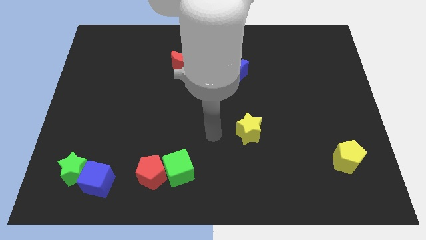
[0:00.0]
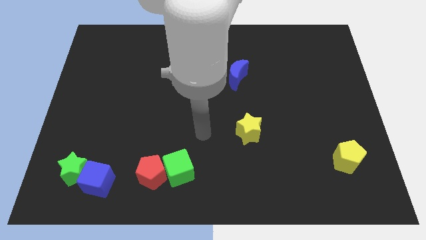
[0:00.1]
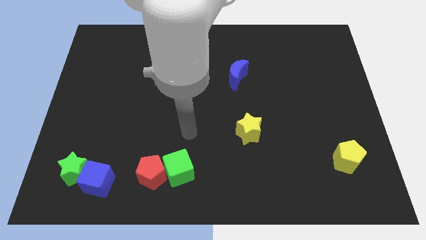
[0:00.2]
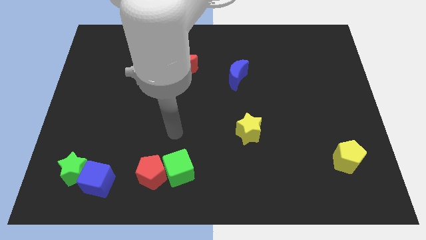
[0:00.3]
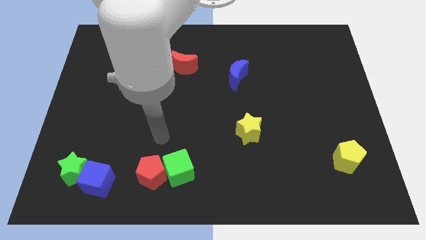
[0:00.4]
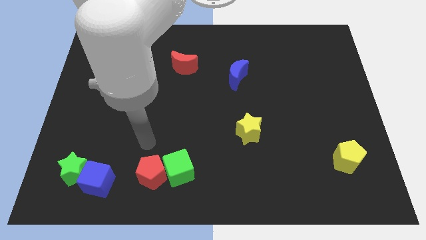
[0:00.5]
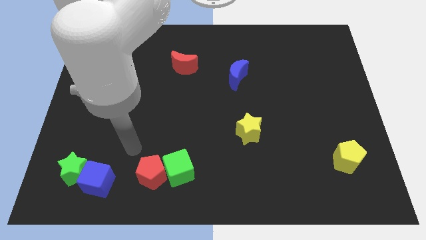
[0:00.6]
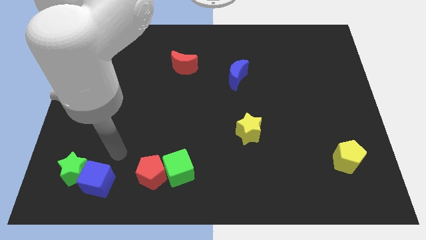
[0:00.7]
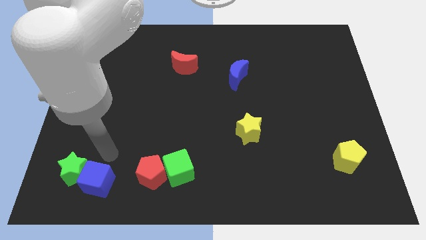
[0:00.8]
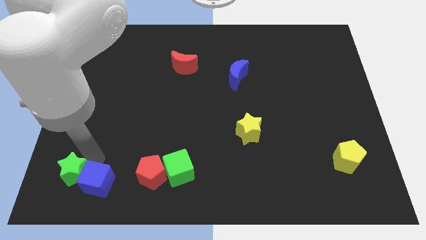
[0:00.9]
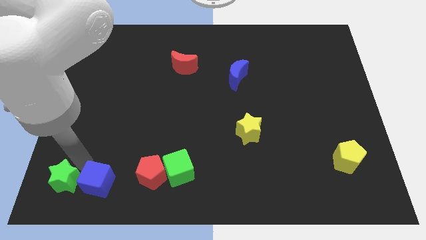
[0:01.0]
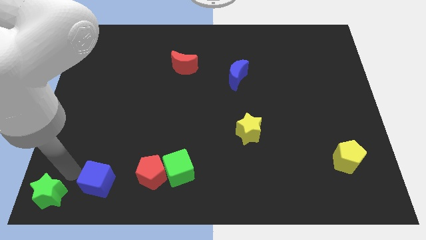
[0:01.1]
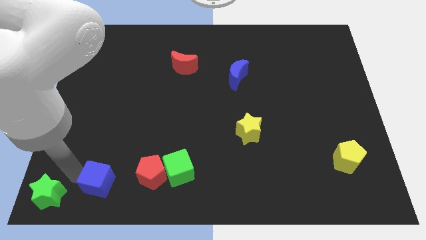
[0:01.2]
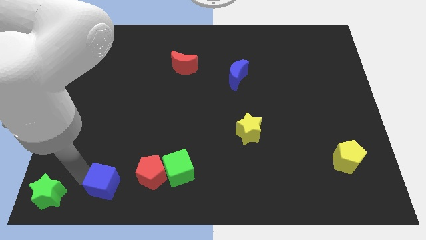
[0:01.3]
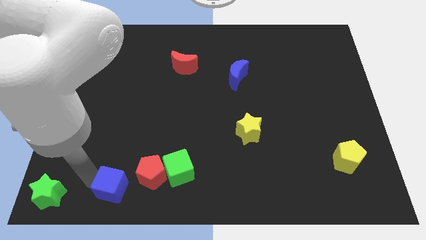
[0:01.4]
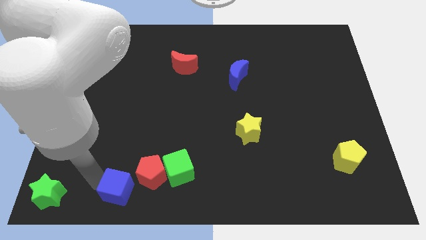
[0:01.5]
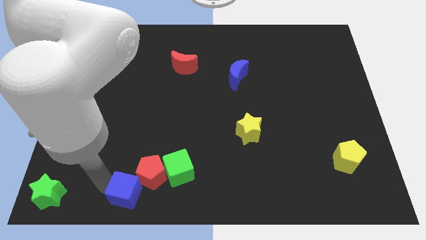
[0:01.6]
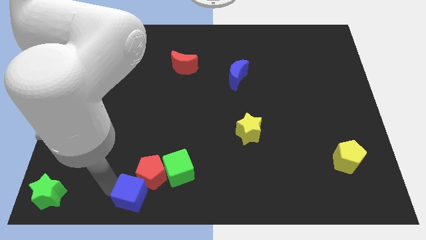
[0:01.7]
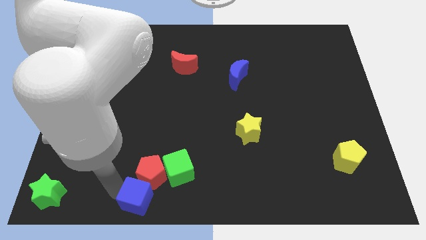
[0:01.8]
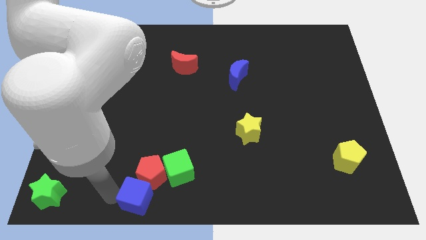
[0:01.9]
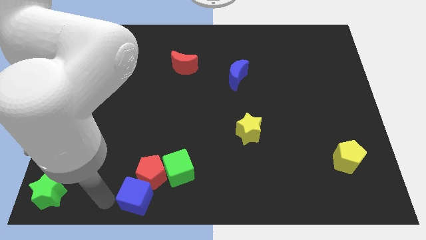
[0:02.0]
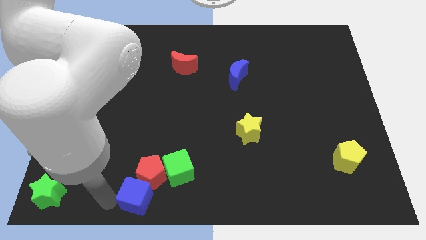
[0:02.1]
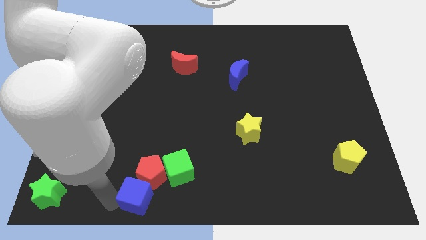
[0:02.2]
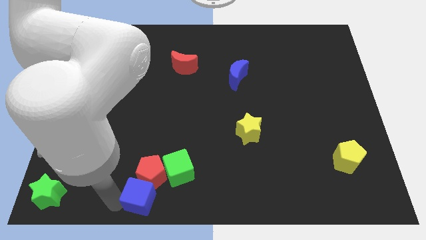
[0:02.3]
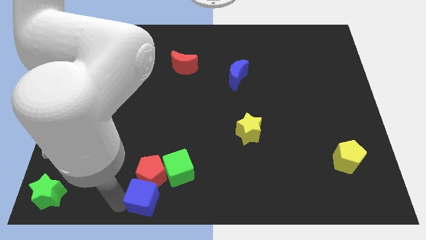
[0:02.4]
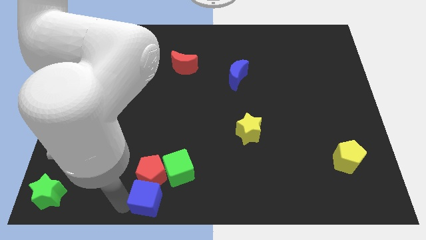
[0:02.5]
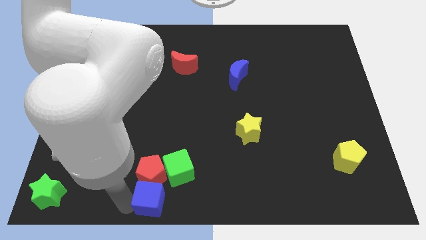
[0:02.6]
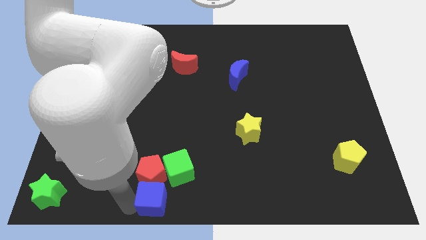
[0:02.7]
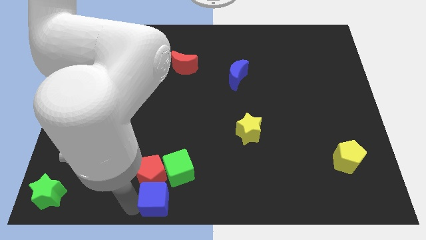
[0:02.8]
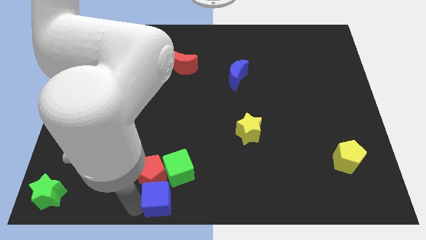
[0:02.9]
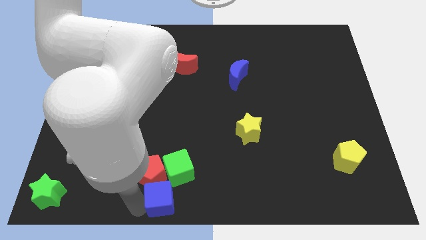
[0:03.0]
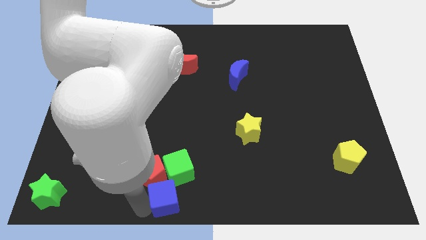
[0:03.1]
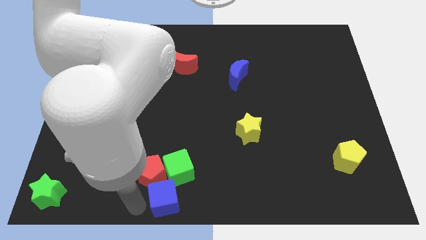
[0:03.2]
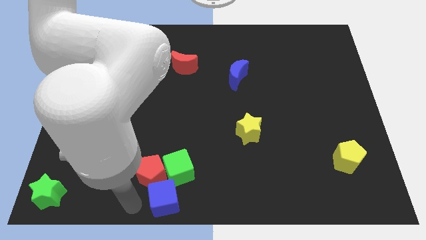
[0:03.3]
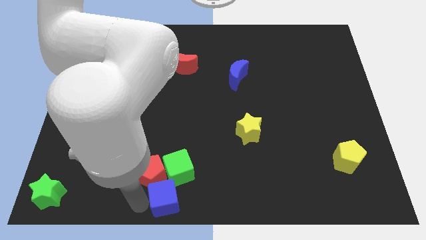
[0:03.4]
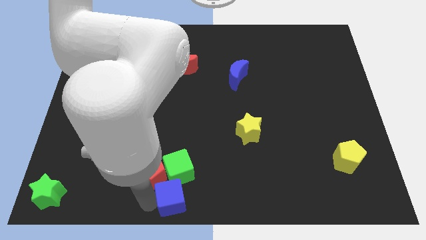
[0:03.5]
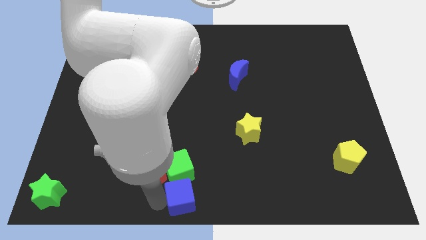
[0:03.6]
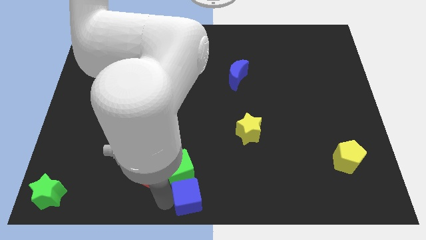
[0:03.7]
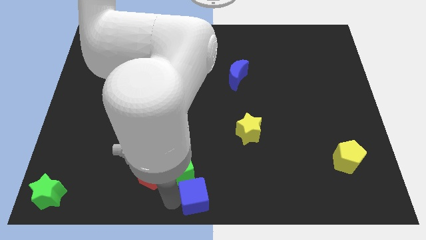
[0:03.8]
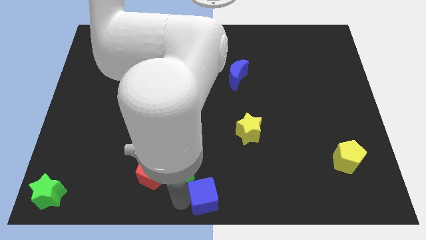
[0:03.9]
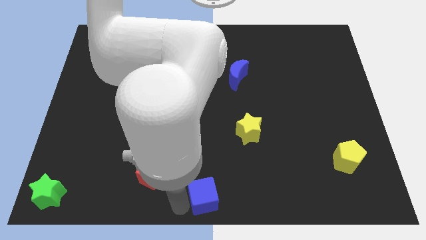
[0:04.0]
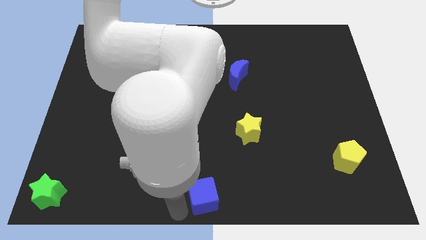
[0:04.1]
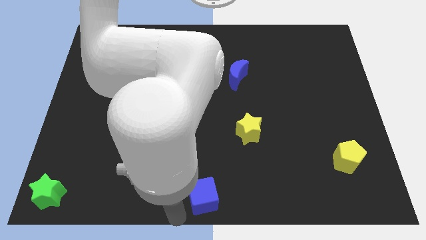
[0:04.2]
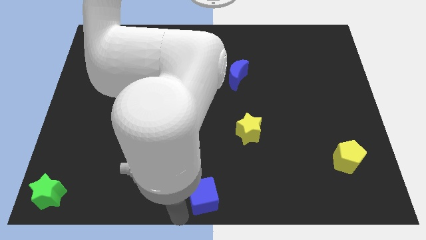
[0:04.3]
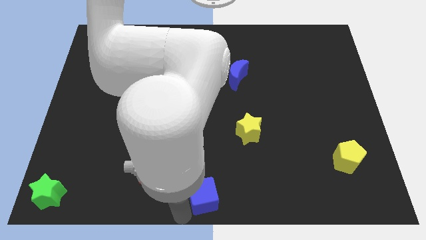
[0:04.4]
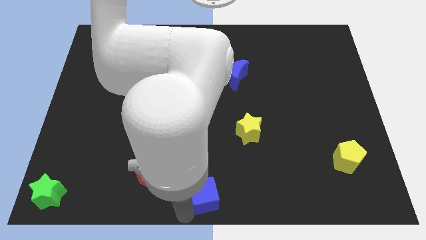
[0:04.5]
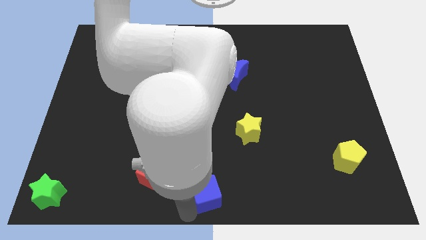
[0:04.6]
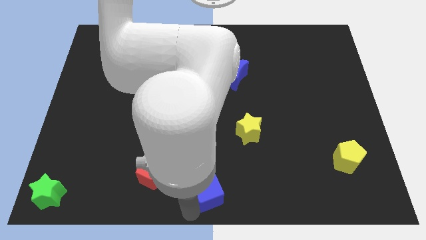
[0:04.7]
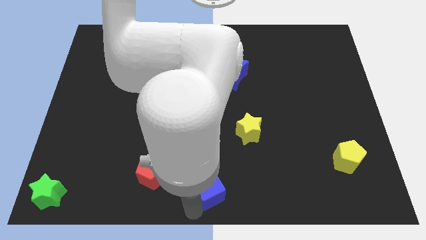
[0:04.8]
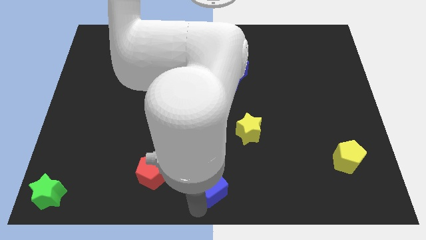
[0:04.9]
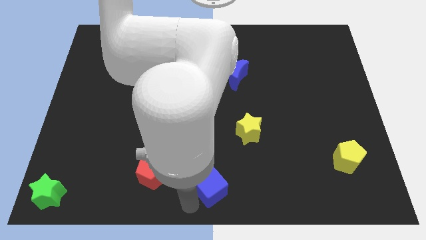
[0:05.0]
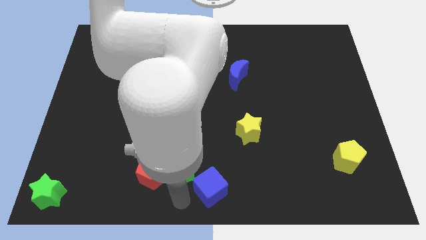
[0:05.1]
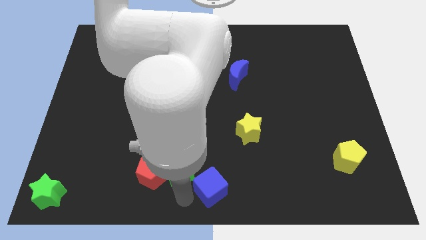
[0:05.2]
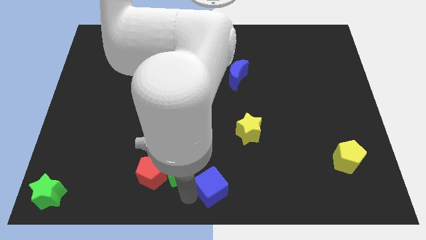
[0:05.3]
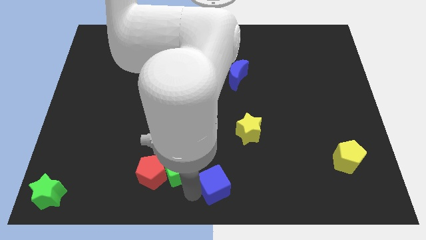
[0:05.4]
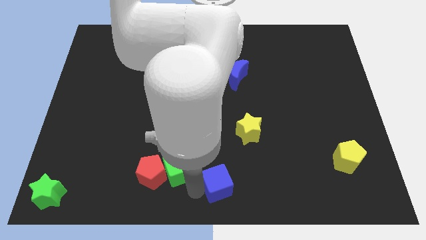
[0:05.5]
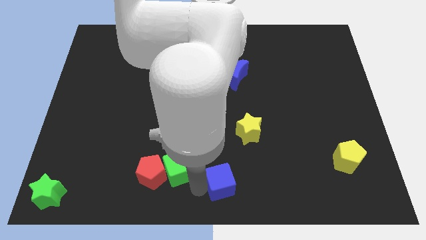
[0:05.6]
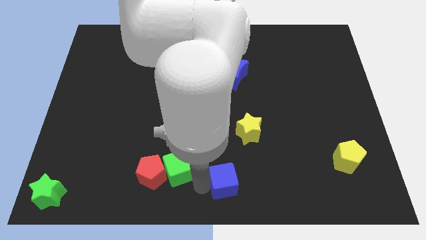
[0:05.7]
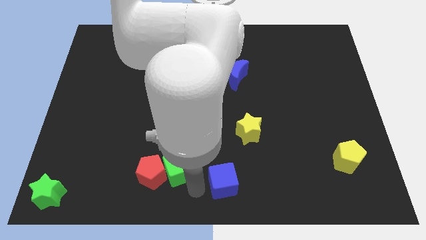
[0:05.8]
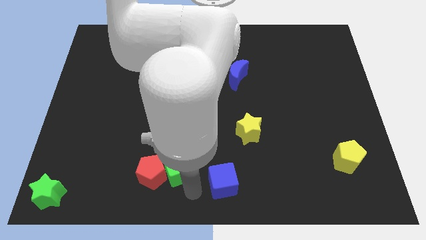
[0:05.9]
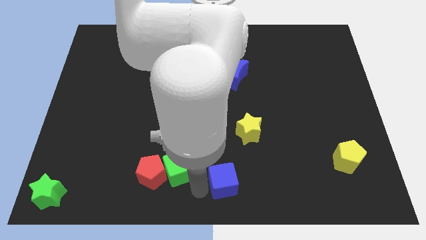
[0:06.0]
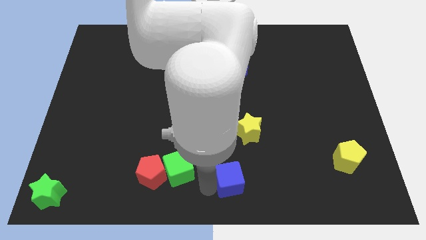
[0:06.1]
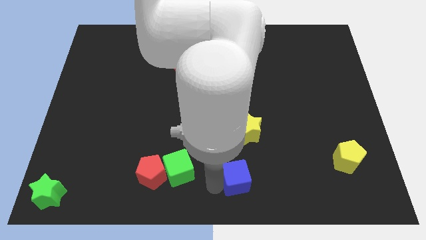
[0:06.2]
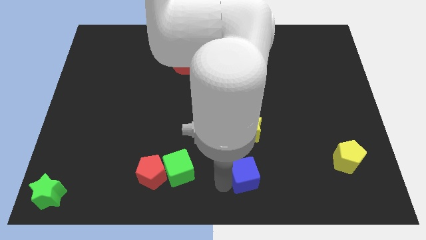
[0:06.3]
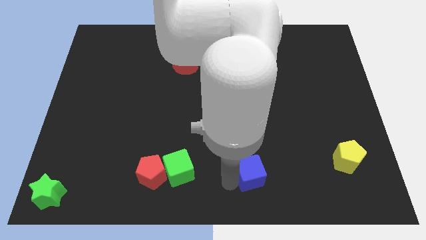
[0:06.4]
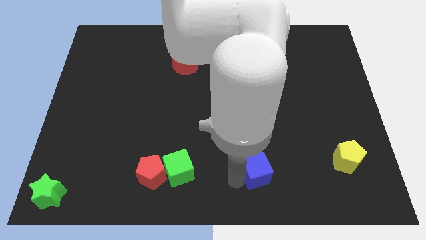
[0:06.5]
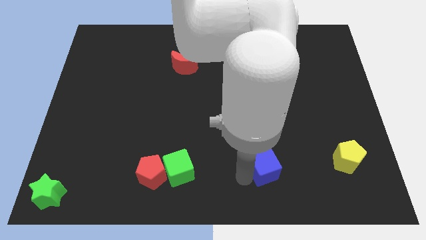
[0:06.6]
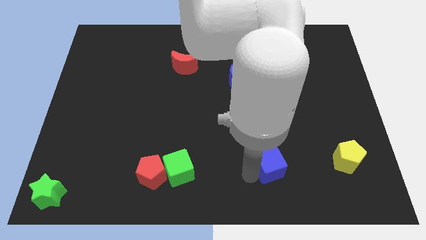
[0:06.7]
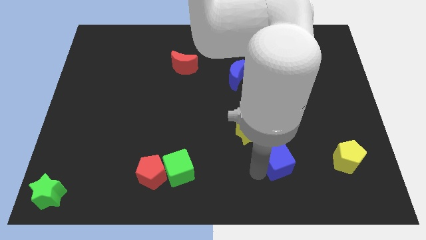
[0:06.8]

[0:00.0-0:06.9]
push the blue cube just left of the yellow pentagon
